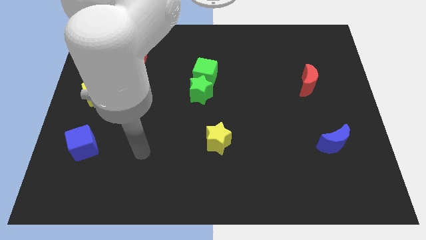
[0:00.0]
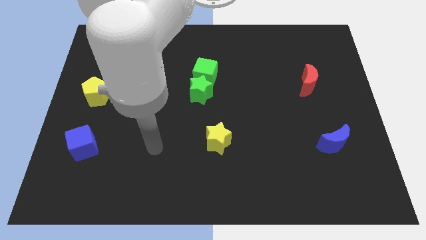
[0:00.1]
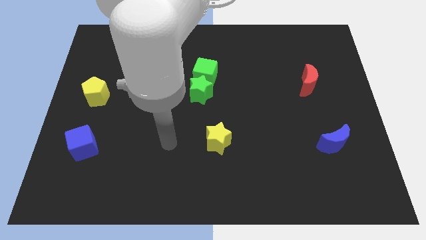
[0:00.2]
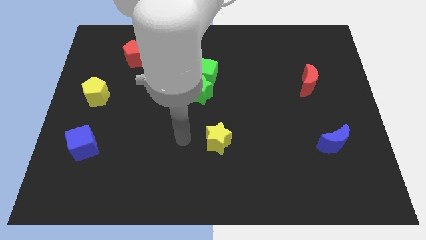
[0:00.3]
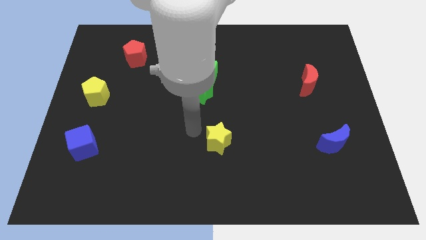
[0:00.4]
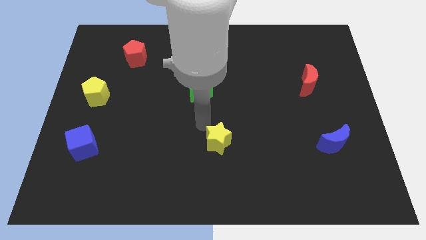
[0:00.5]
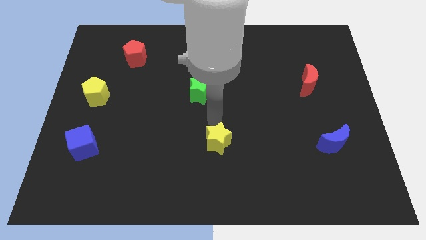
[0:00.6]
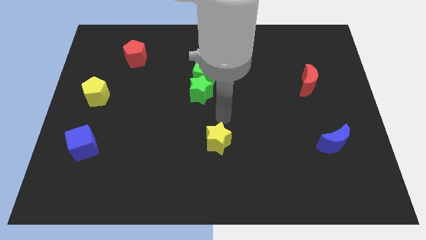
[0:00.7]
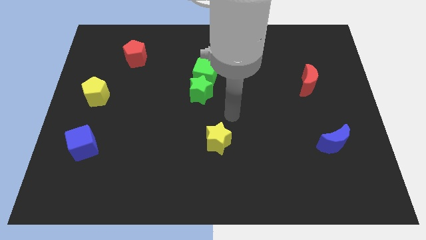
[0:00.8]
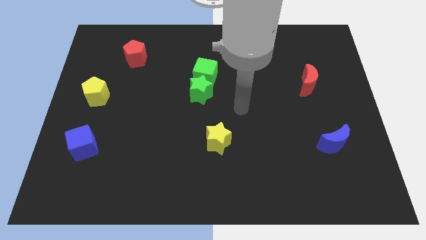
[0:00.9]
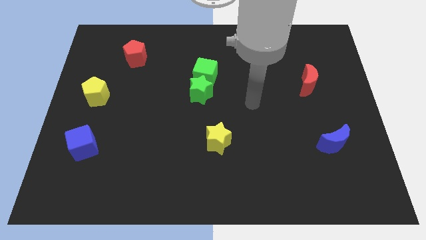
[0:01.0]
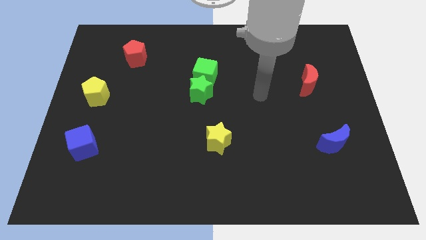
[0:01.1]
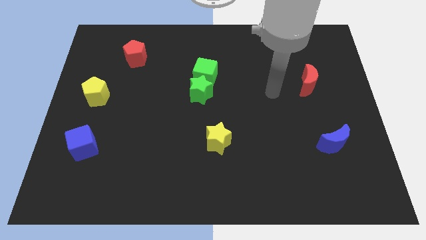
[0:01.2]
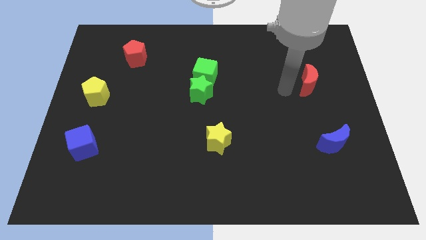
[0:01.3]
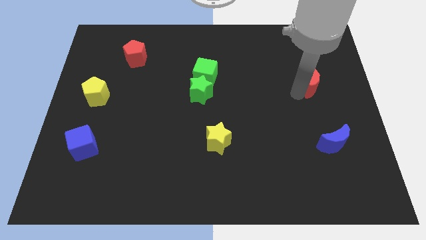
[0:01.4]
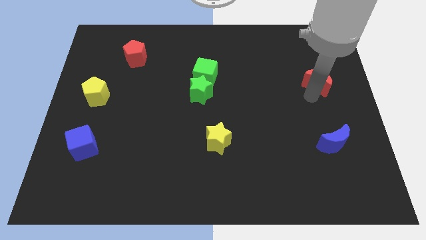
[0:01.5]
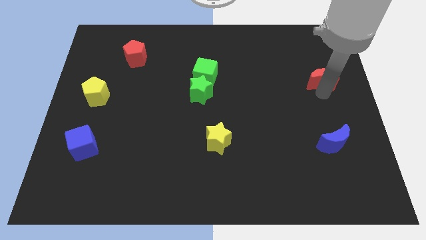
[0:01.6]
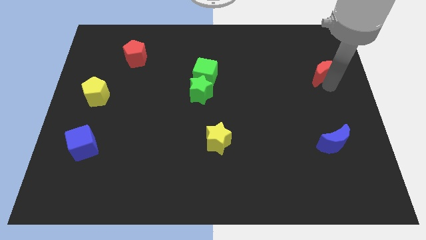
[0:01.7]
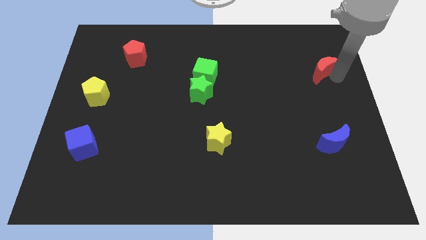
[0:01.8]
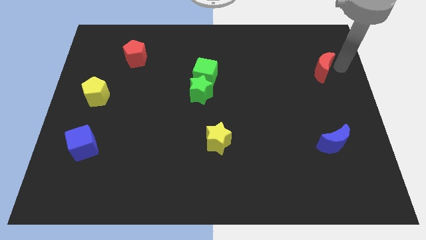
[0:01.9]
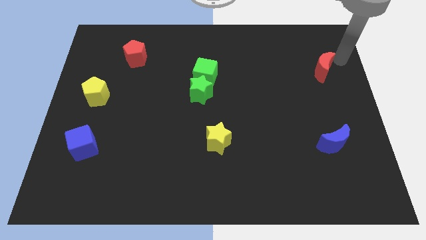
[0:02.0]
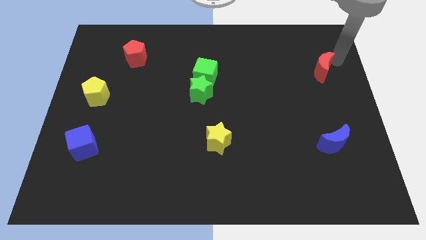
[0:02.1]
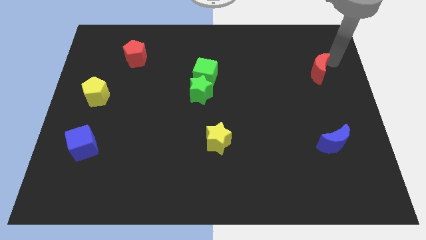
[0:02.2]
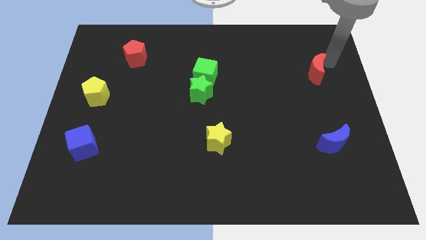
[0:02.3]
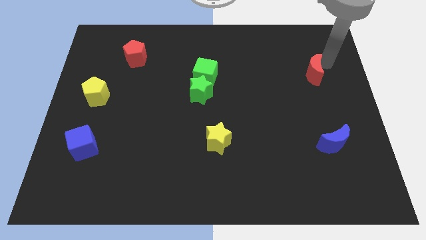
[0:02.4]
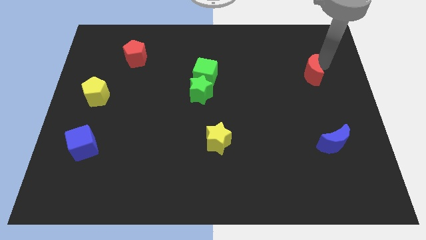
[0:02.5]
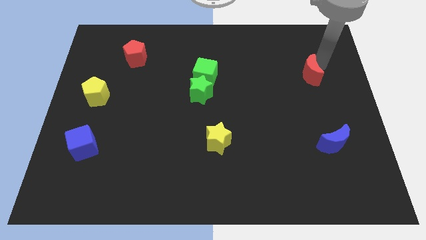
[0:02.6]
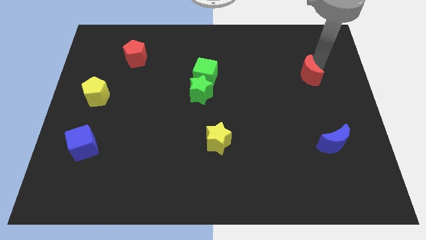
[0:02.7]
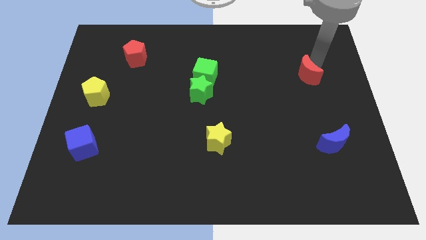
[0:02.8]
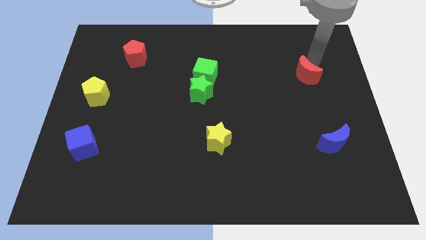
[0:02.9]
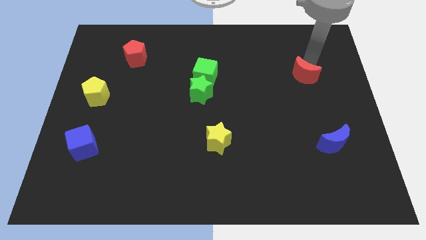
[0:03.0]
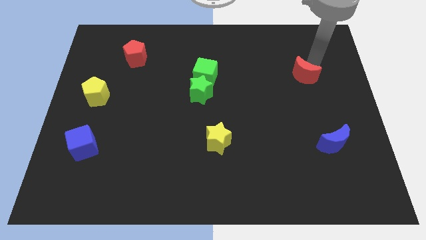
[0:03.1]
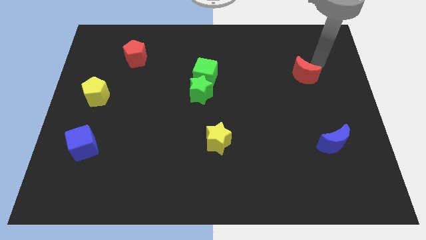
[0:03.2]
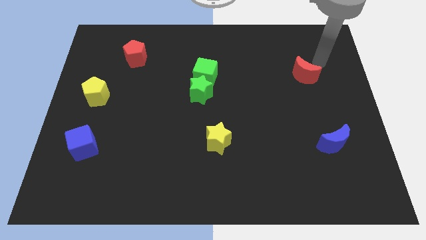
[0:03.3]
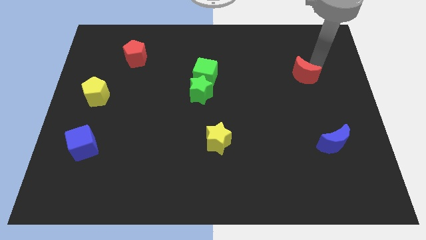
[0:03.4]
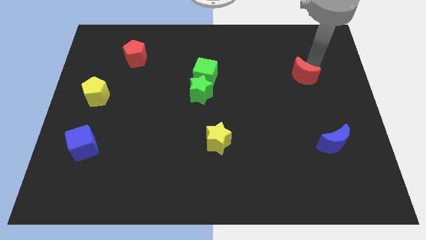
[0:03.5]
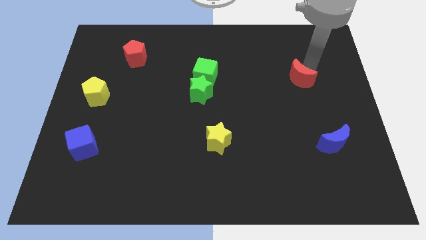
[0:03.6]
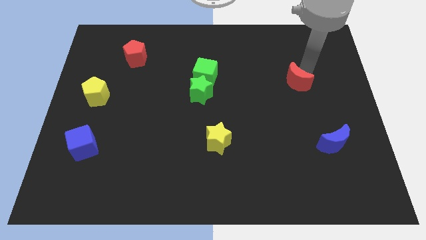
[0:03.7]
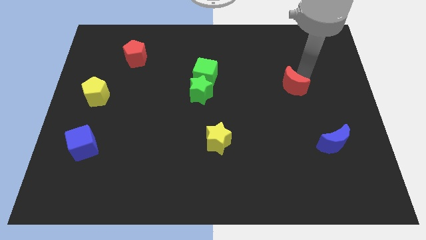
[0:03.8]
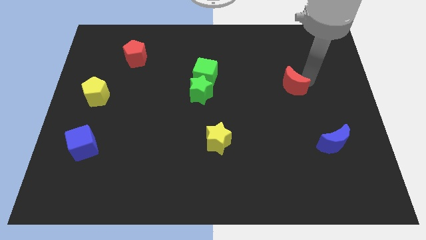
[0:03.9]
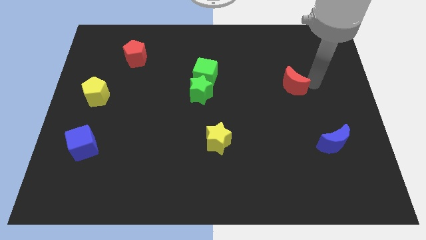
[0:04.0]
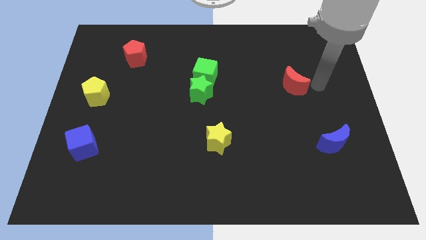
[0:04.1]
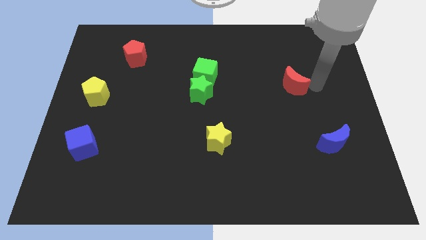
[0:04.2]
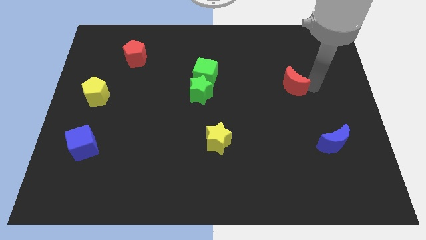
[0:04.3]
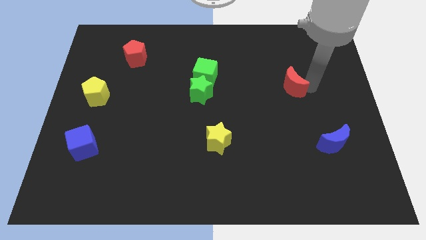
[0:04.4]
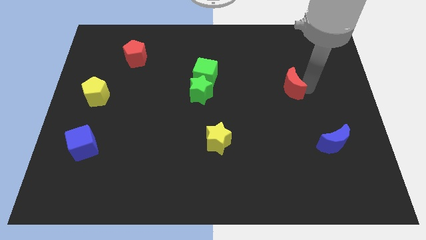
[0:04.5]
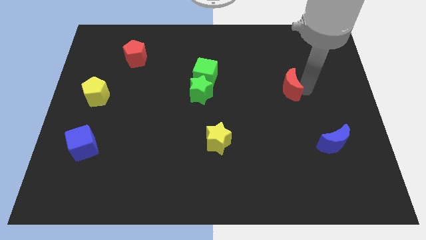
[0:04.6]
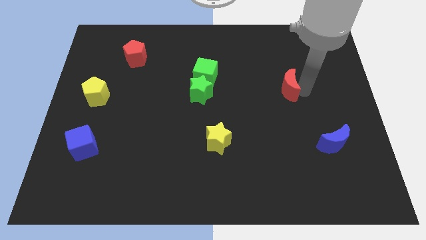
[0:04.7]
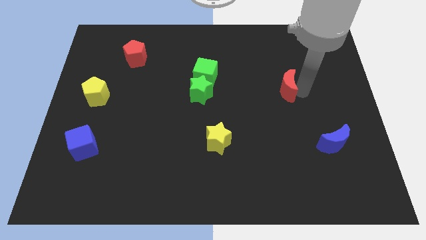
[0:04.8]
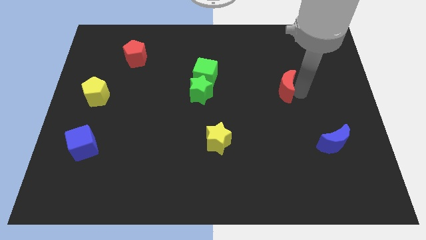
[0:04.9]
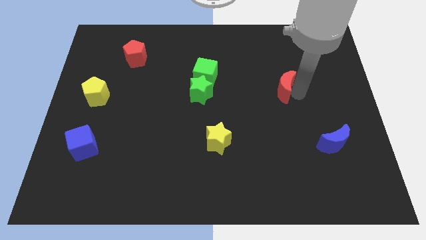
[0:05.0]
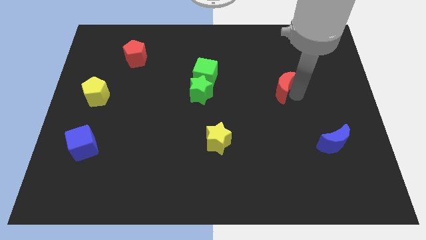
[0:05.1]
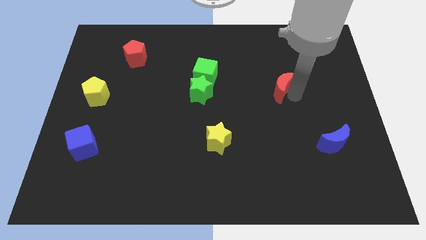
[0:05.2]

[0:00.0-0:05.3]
slide the red moon left somewhat

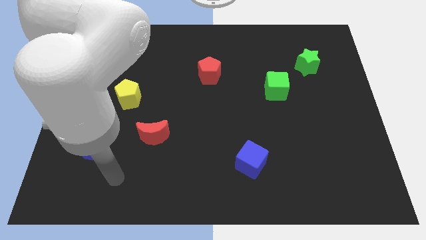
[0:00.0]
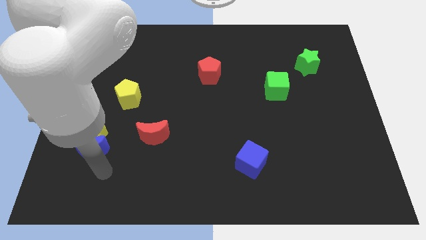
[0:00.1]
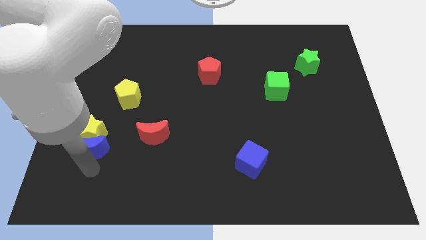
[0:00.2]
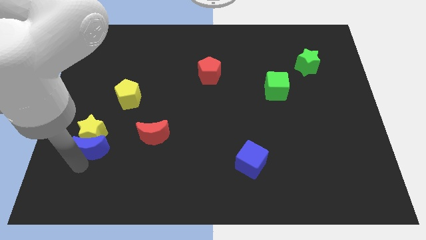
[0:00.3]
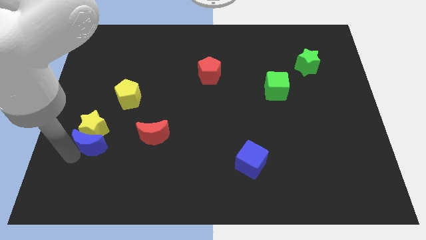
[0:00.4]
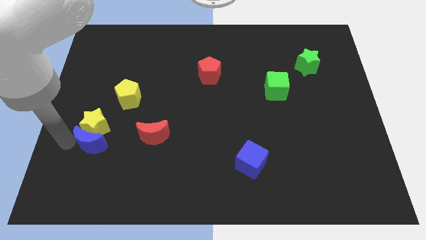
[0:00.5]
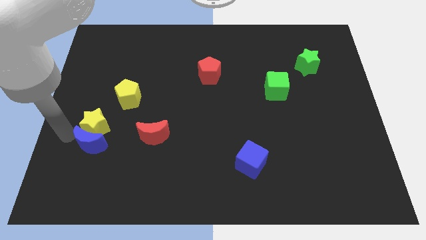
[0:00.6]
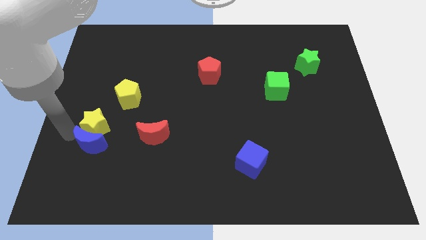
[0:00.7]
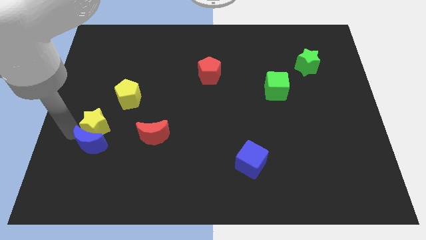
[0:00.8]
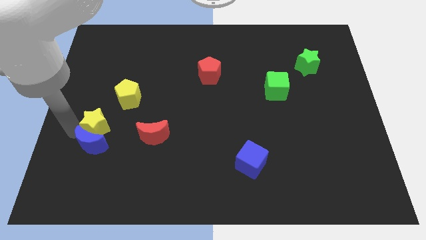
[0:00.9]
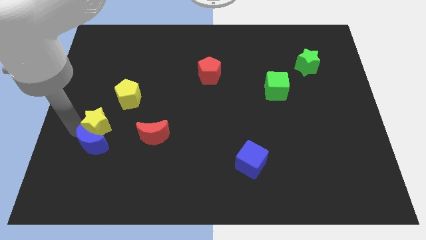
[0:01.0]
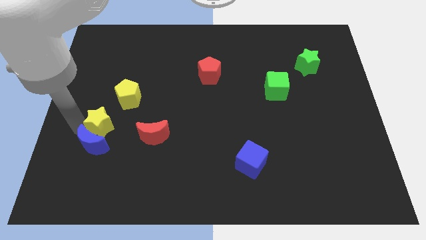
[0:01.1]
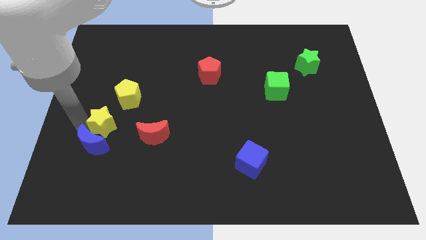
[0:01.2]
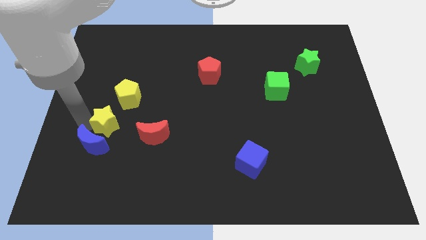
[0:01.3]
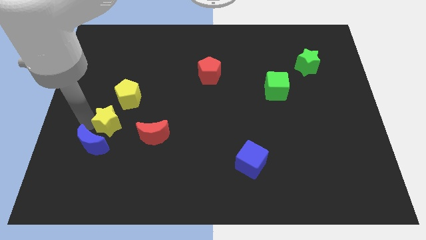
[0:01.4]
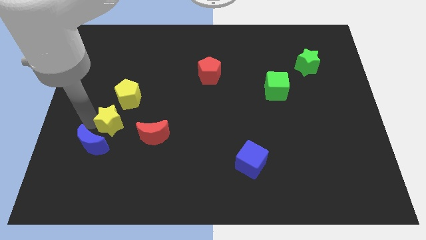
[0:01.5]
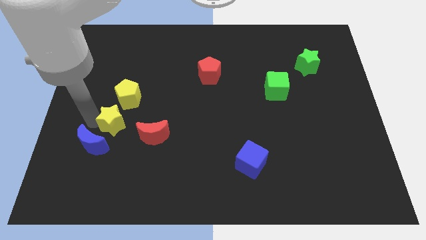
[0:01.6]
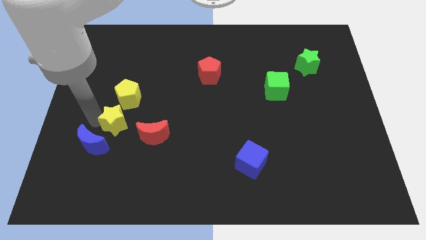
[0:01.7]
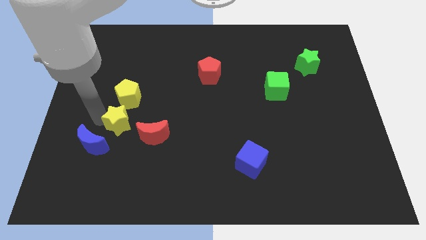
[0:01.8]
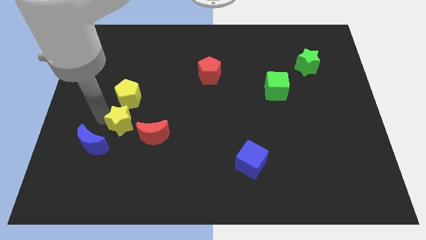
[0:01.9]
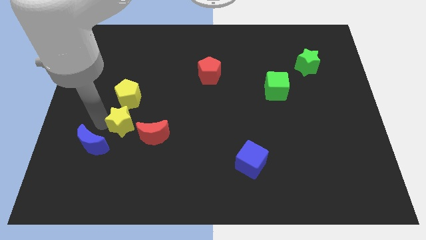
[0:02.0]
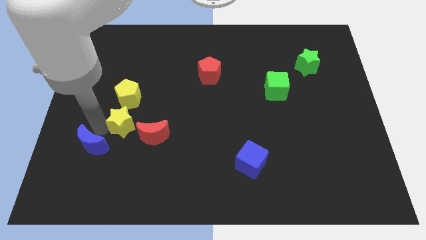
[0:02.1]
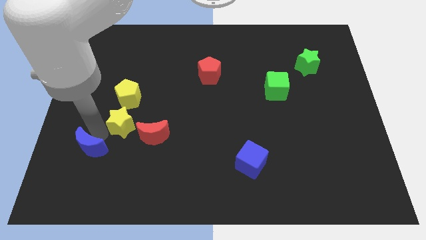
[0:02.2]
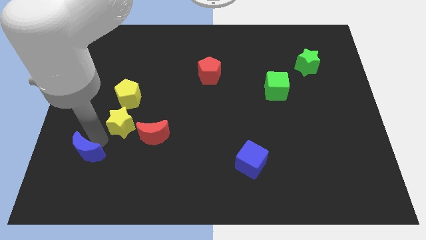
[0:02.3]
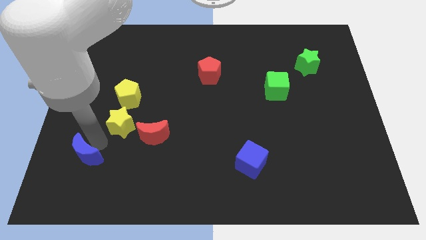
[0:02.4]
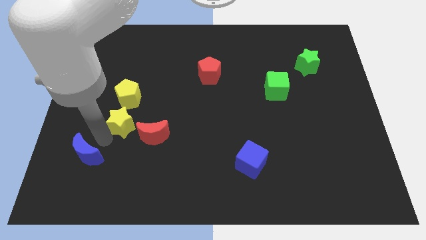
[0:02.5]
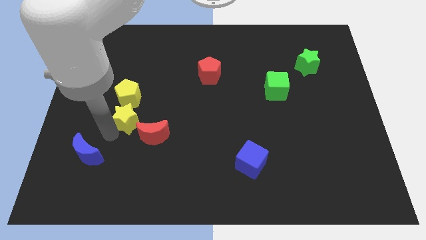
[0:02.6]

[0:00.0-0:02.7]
slide the yellow star upwards and right a little bit

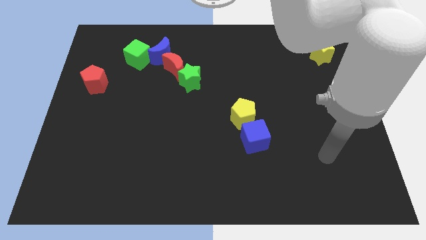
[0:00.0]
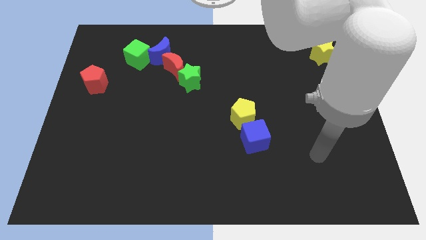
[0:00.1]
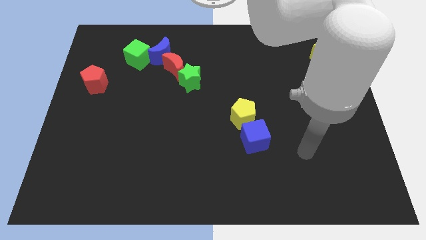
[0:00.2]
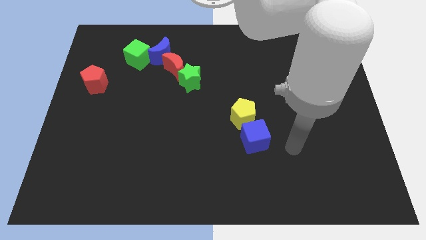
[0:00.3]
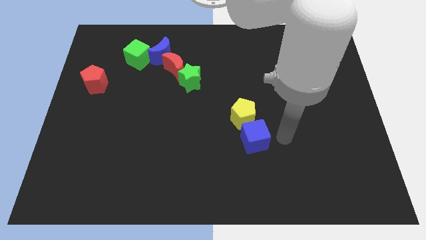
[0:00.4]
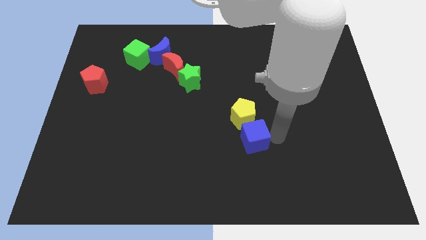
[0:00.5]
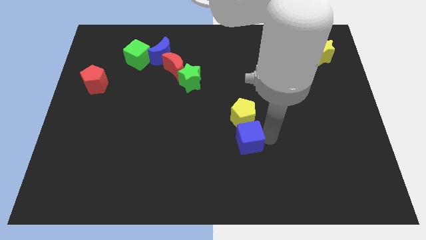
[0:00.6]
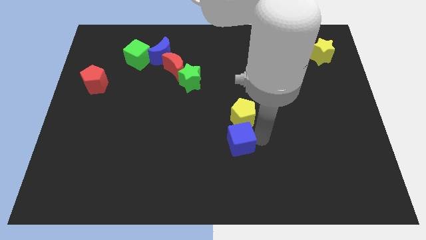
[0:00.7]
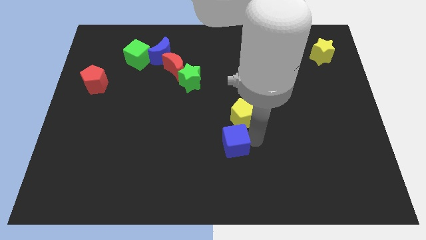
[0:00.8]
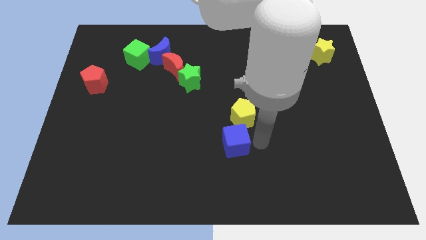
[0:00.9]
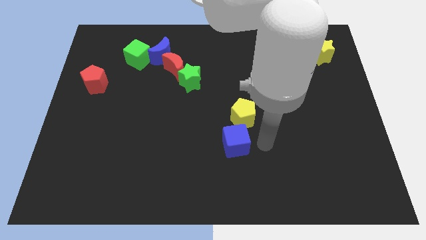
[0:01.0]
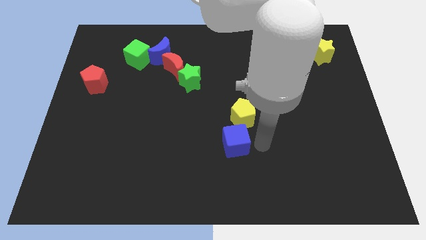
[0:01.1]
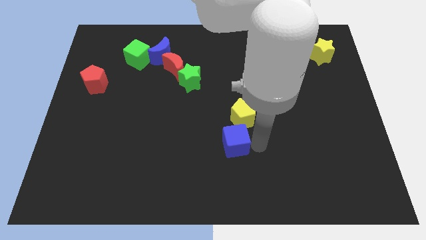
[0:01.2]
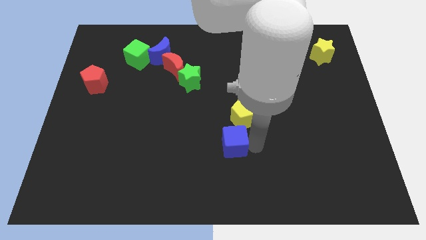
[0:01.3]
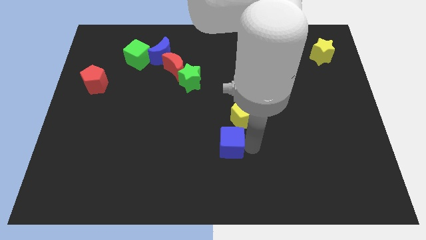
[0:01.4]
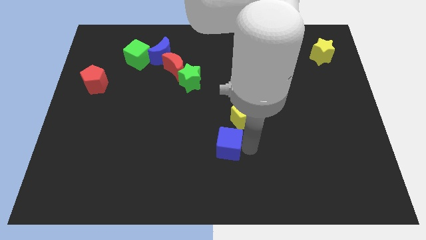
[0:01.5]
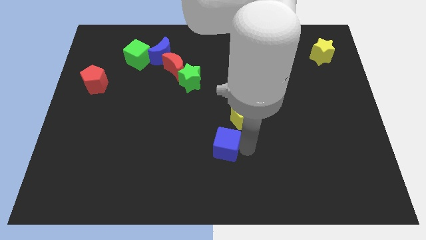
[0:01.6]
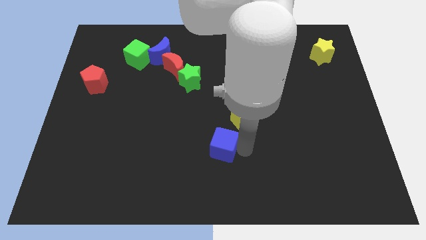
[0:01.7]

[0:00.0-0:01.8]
slightly move the blue cube to the left
